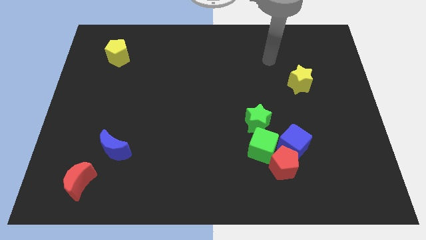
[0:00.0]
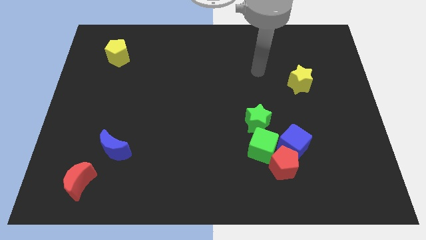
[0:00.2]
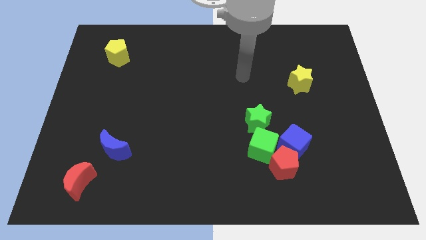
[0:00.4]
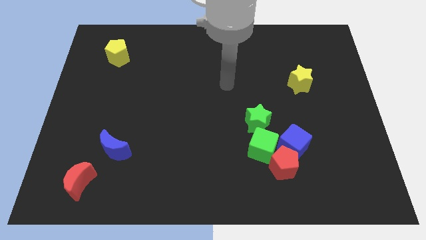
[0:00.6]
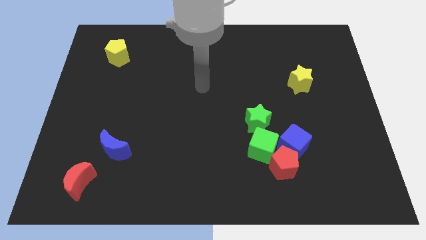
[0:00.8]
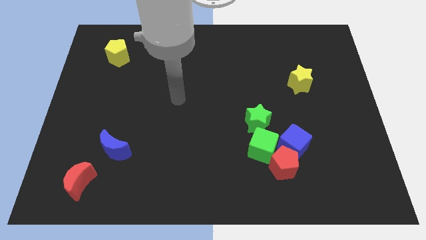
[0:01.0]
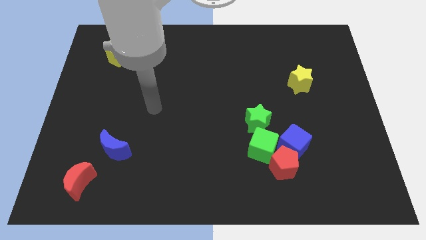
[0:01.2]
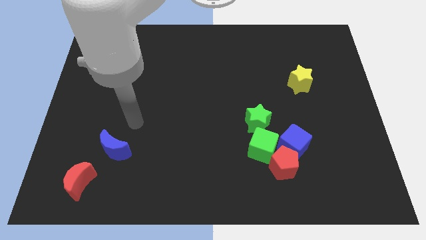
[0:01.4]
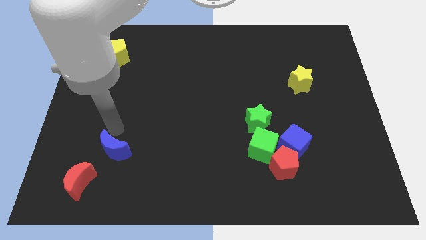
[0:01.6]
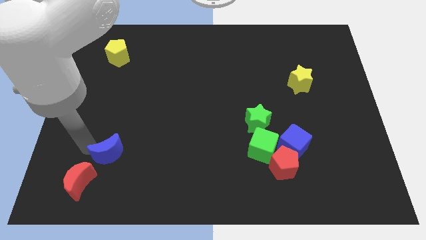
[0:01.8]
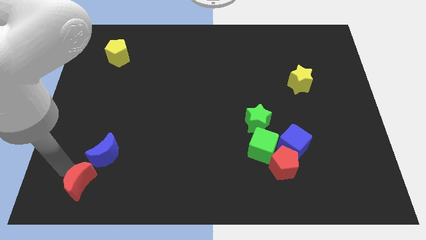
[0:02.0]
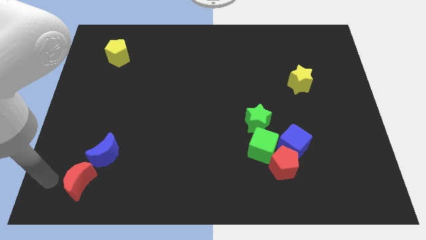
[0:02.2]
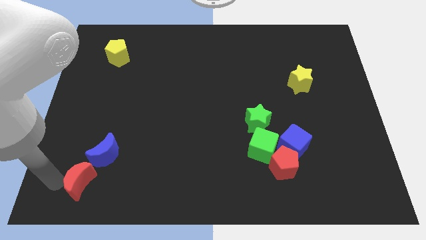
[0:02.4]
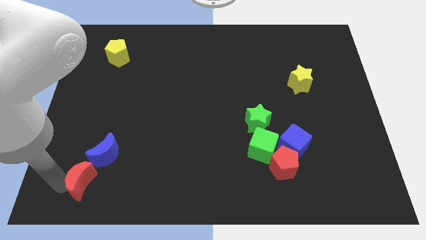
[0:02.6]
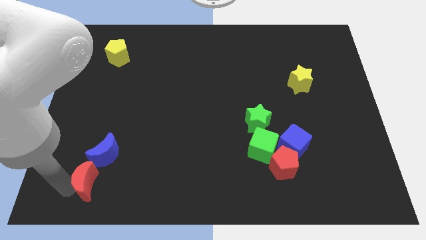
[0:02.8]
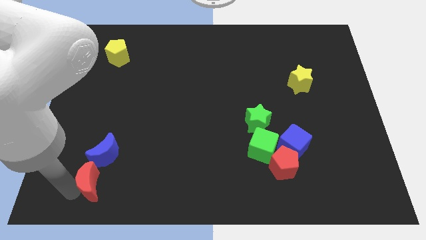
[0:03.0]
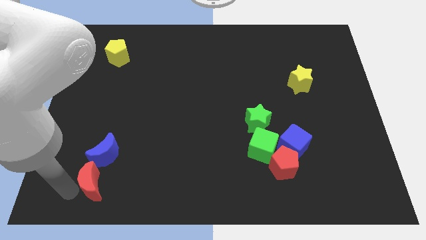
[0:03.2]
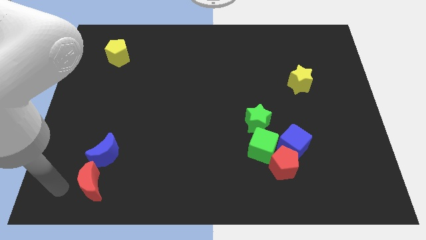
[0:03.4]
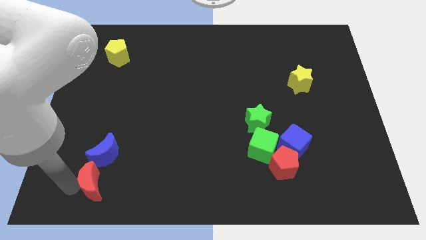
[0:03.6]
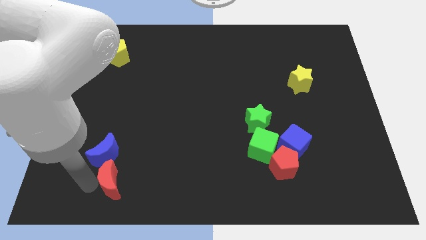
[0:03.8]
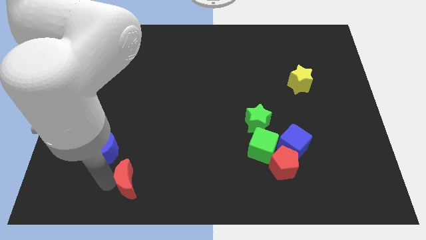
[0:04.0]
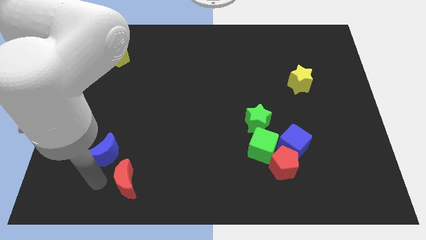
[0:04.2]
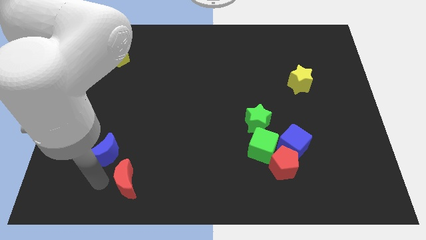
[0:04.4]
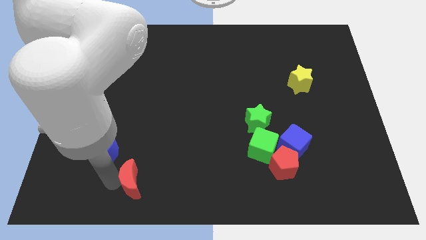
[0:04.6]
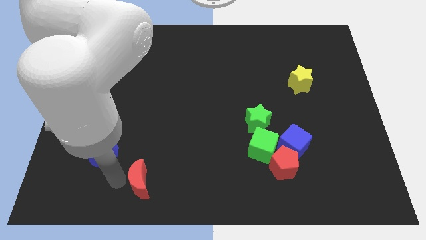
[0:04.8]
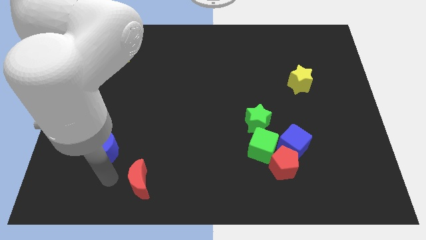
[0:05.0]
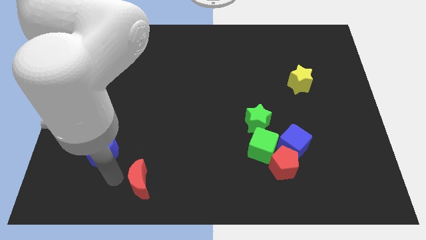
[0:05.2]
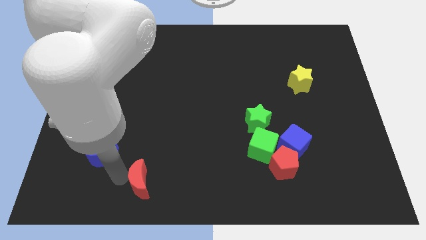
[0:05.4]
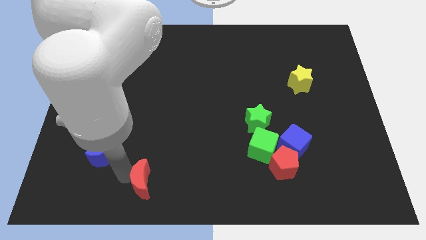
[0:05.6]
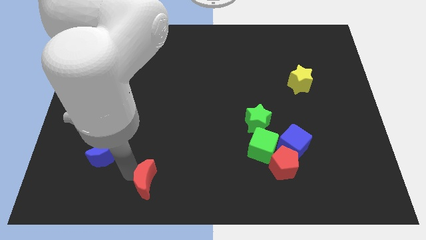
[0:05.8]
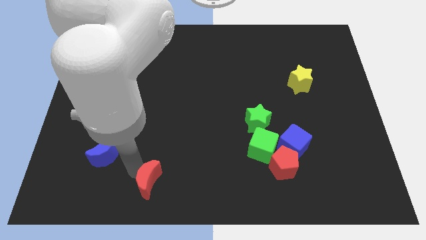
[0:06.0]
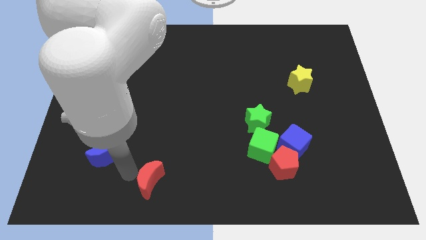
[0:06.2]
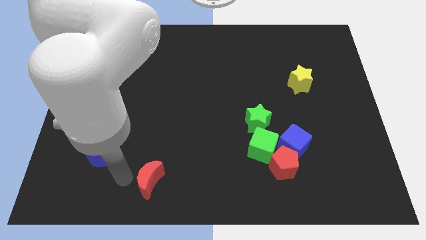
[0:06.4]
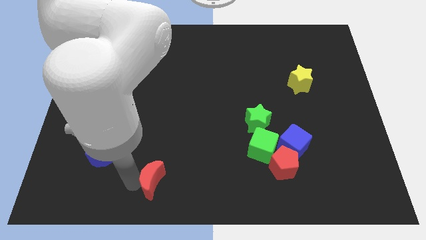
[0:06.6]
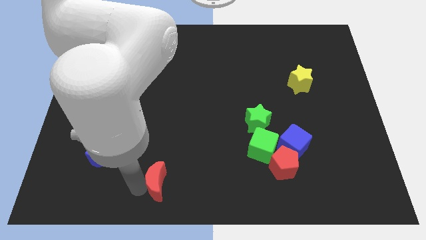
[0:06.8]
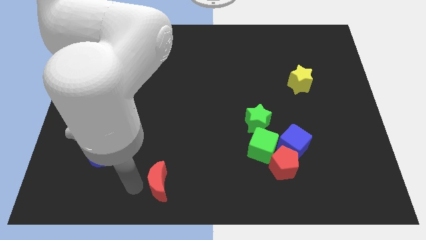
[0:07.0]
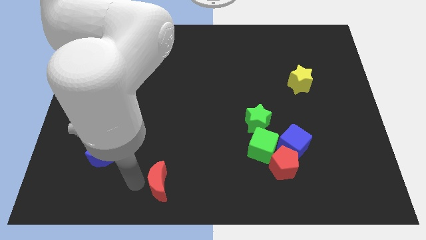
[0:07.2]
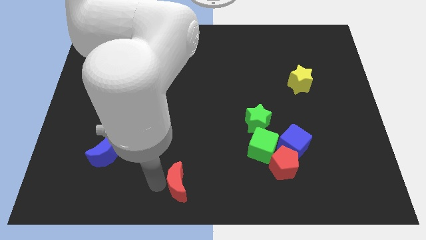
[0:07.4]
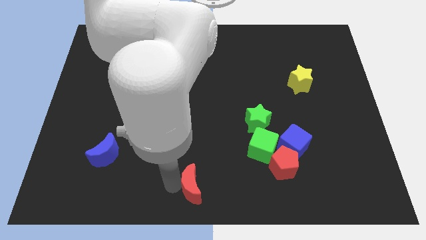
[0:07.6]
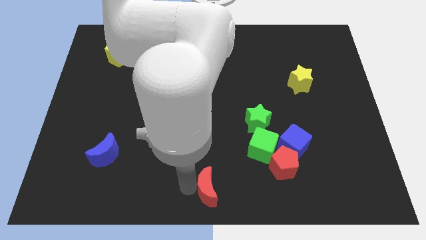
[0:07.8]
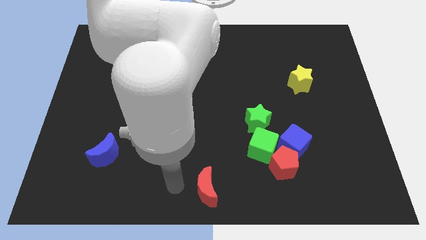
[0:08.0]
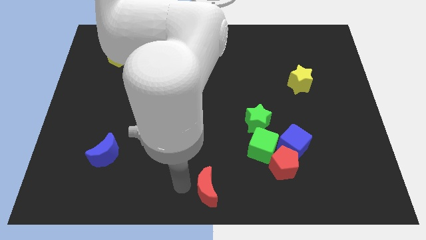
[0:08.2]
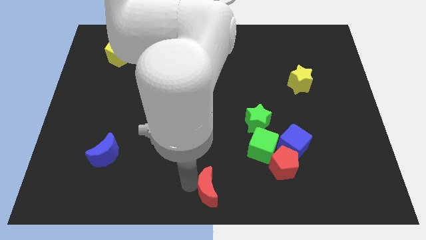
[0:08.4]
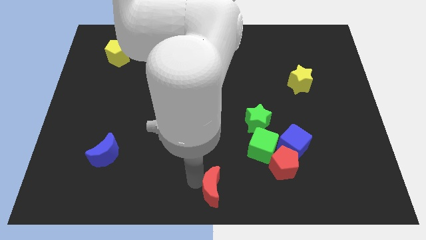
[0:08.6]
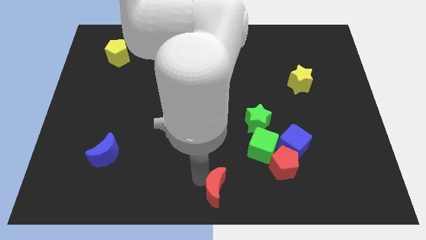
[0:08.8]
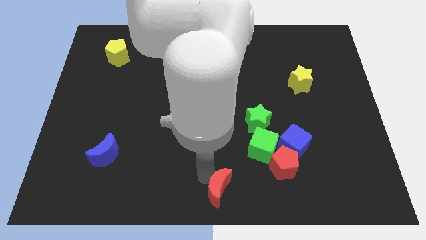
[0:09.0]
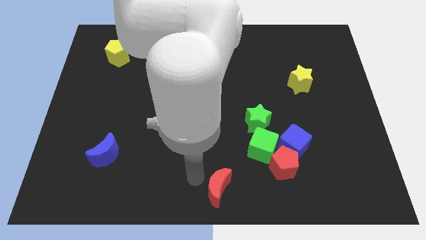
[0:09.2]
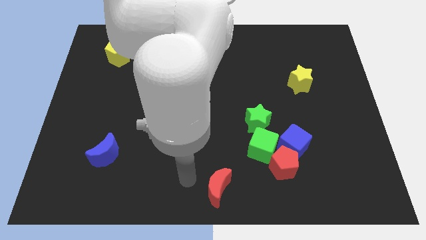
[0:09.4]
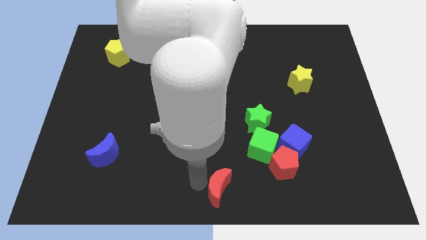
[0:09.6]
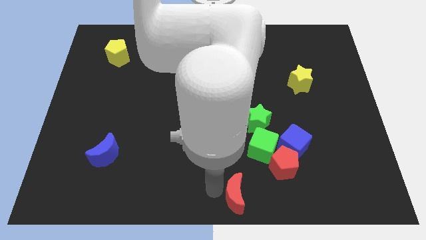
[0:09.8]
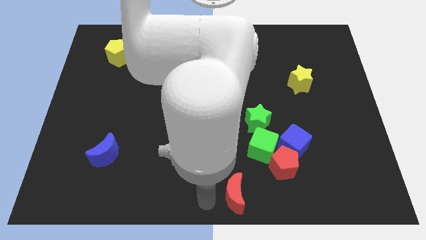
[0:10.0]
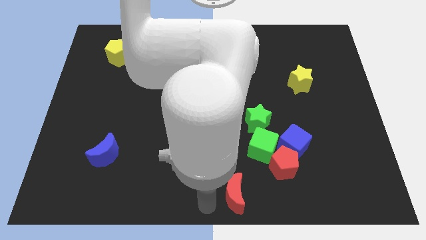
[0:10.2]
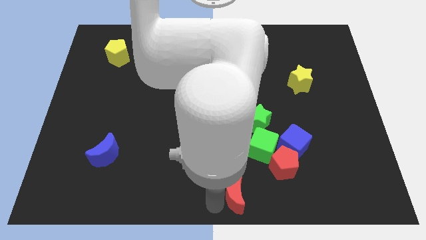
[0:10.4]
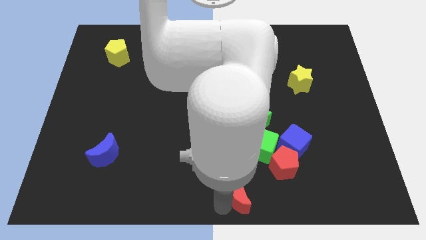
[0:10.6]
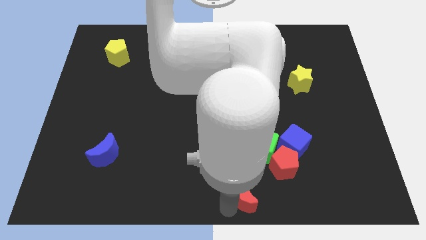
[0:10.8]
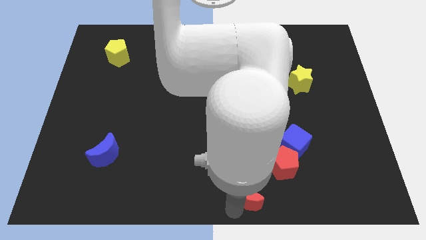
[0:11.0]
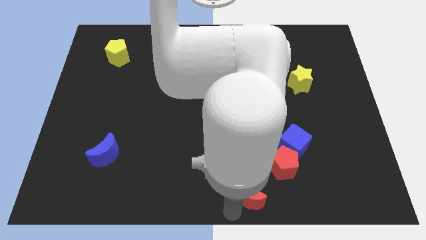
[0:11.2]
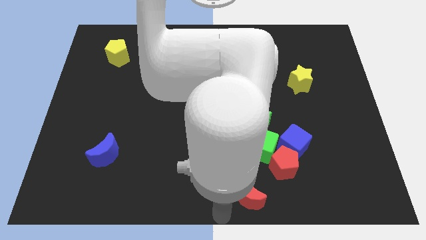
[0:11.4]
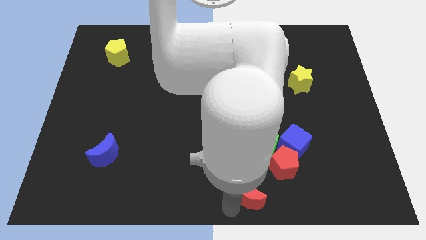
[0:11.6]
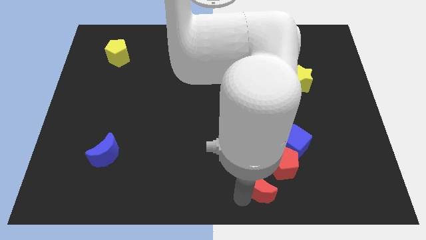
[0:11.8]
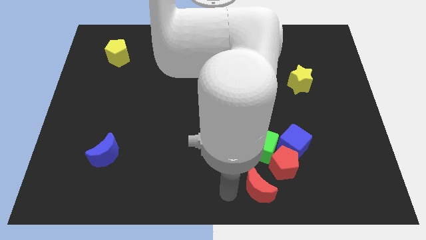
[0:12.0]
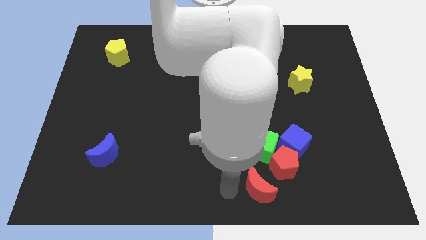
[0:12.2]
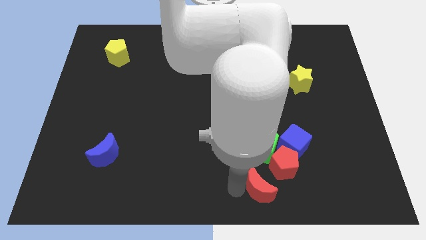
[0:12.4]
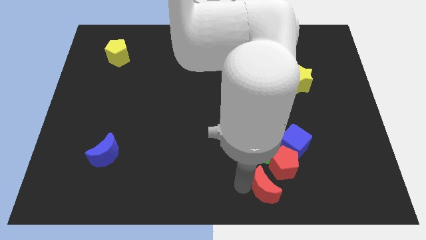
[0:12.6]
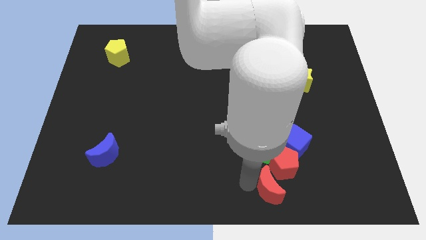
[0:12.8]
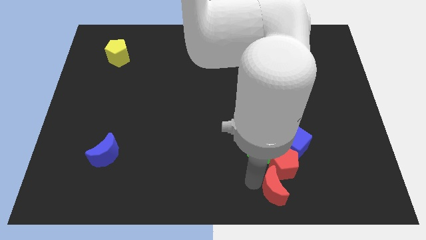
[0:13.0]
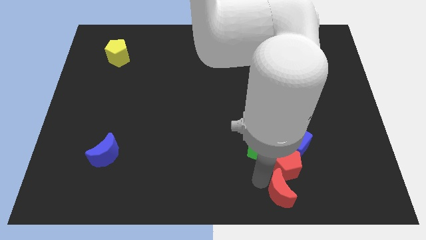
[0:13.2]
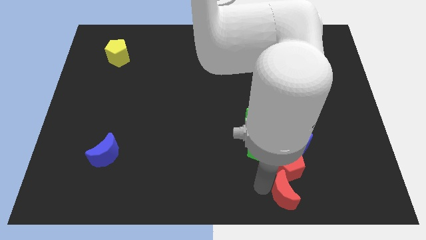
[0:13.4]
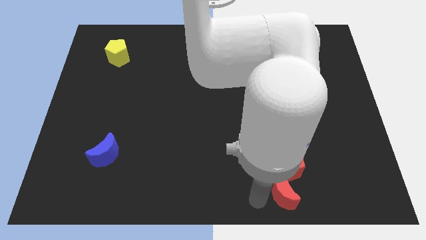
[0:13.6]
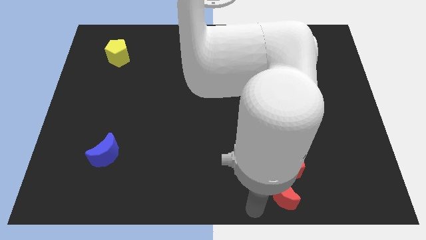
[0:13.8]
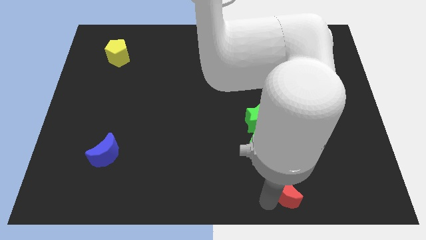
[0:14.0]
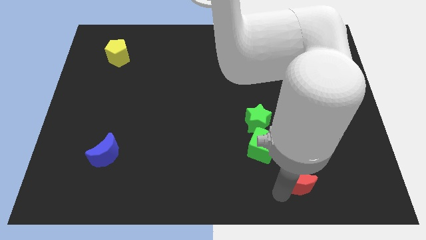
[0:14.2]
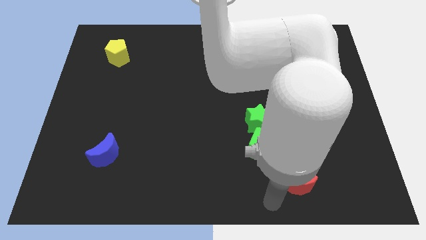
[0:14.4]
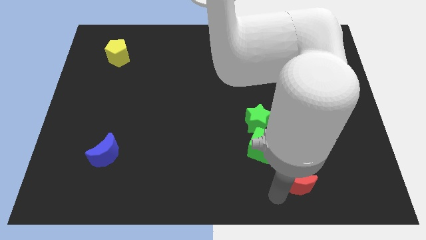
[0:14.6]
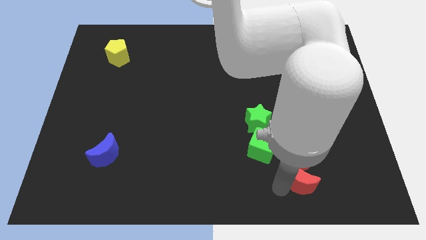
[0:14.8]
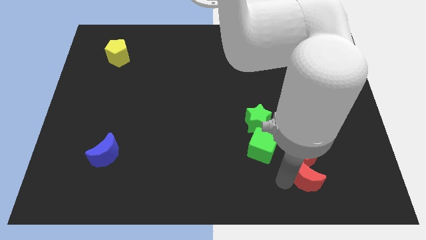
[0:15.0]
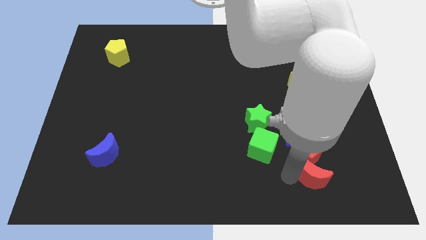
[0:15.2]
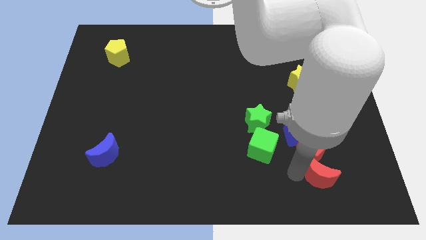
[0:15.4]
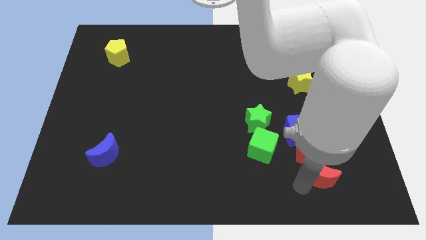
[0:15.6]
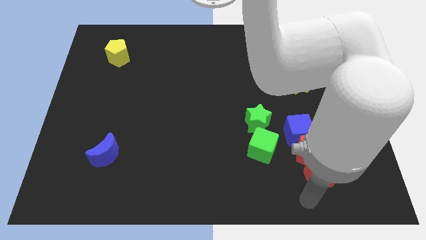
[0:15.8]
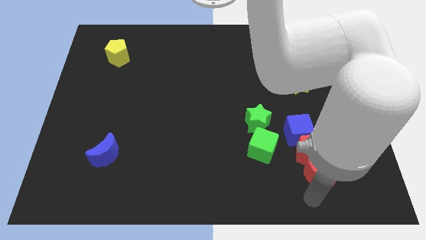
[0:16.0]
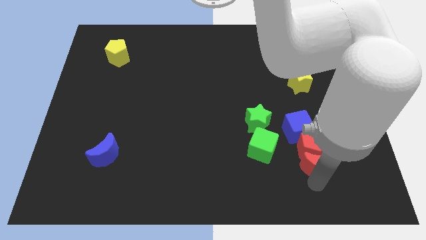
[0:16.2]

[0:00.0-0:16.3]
put the red moon to the bottom right of the blue cube
